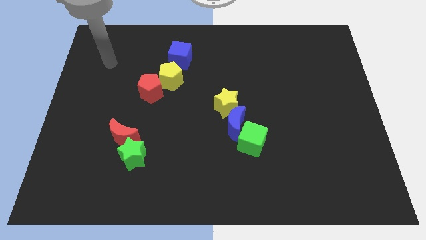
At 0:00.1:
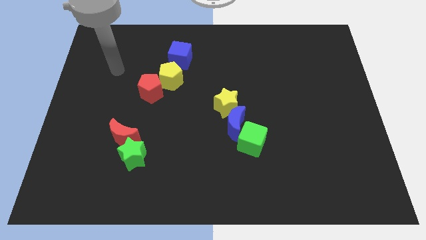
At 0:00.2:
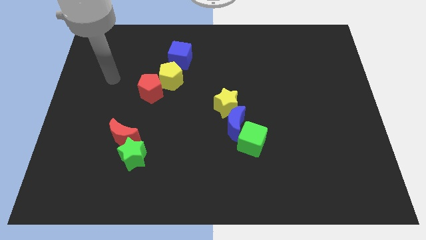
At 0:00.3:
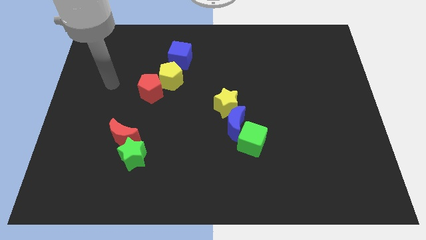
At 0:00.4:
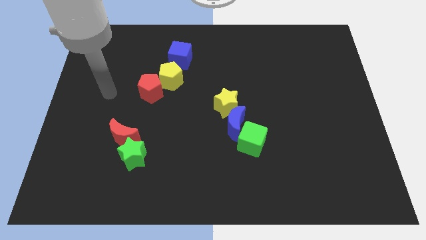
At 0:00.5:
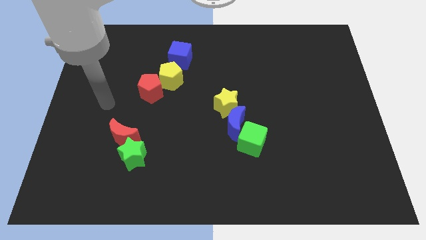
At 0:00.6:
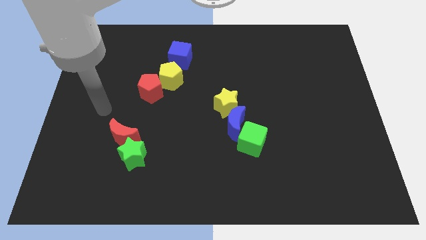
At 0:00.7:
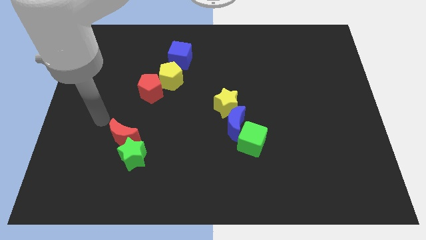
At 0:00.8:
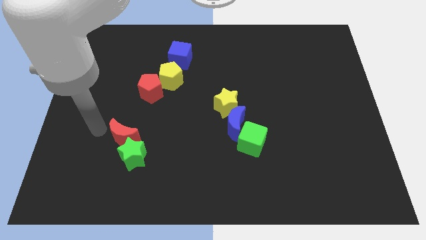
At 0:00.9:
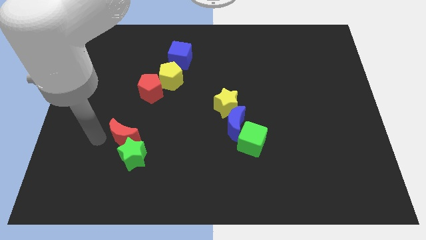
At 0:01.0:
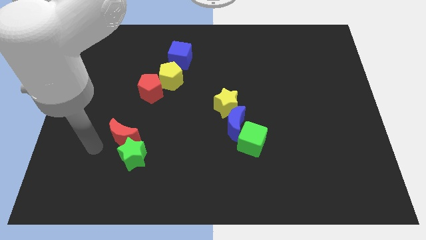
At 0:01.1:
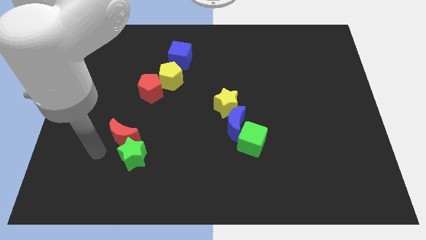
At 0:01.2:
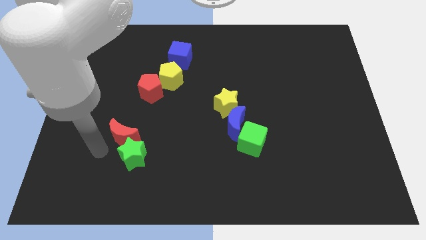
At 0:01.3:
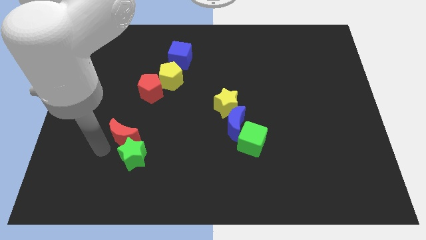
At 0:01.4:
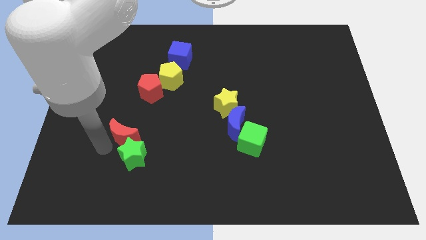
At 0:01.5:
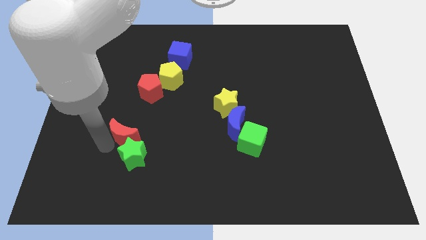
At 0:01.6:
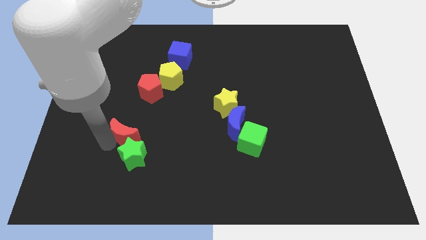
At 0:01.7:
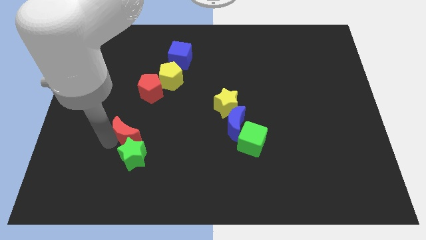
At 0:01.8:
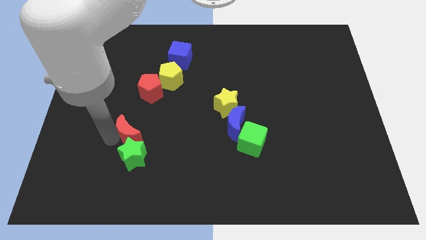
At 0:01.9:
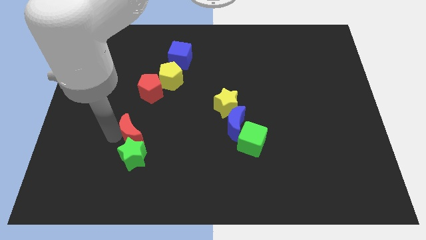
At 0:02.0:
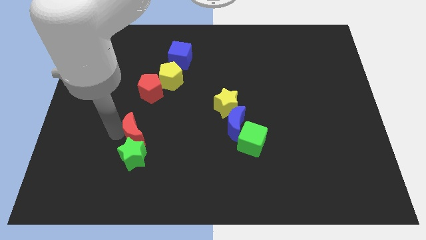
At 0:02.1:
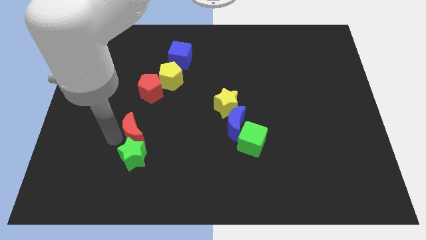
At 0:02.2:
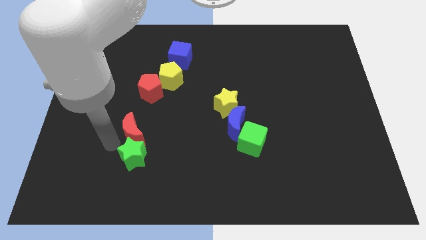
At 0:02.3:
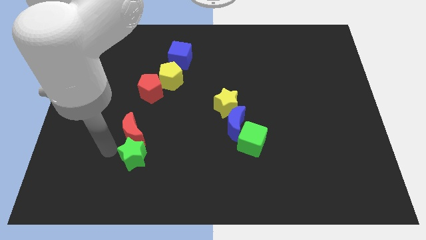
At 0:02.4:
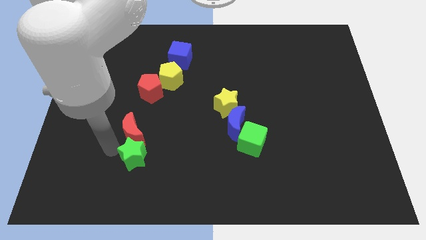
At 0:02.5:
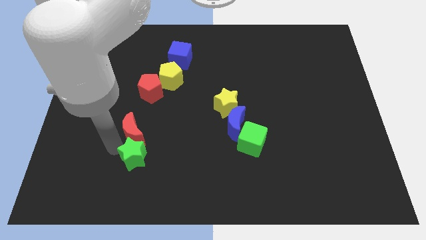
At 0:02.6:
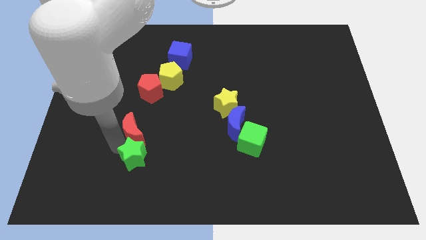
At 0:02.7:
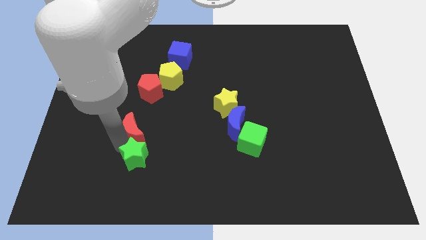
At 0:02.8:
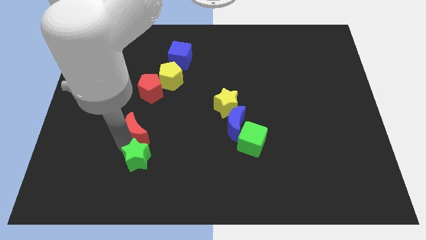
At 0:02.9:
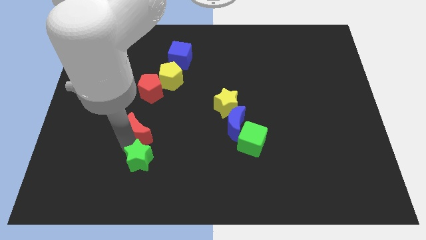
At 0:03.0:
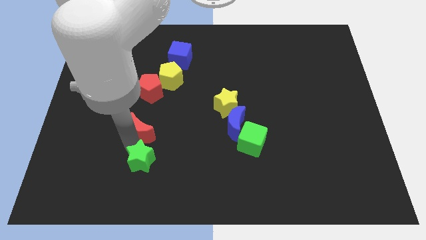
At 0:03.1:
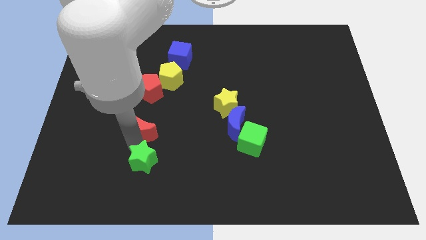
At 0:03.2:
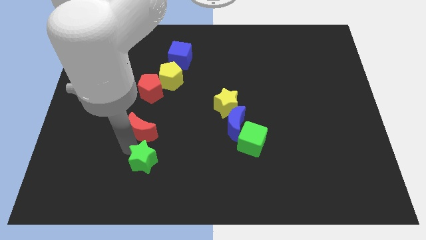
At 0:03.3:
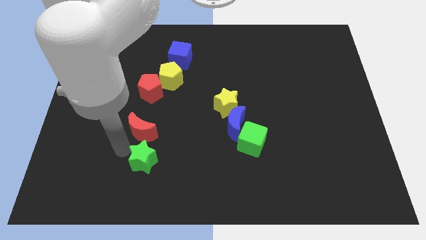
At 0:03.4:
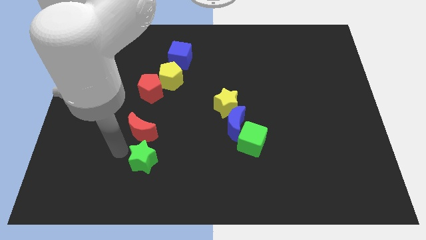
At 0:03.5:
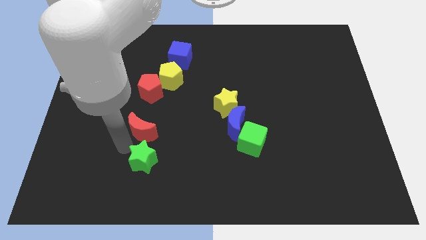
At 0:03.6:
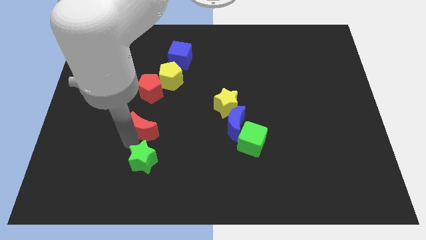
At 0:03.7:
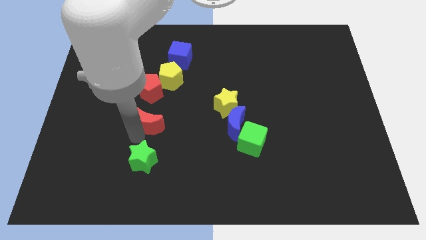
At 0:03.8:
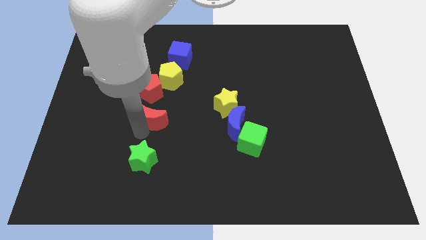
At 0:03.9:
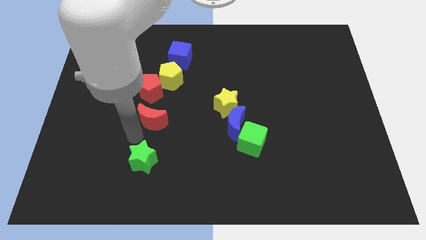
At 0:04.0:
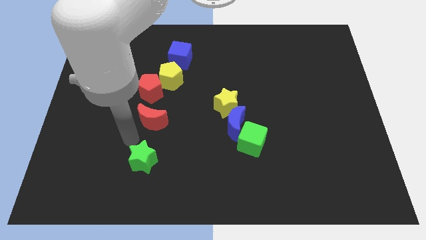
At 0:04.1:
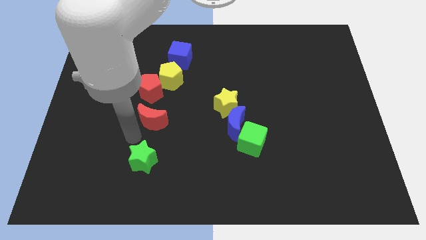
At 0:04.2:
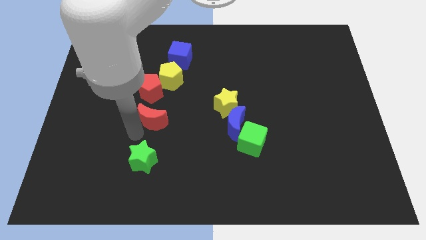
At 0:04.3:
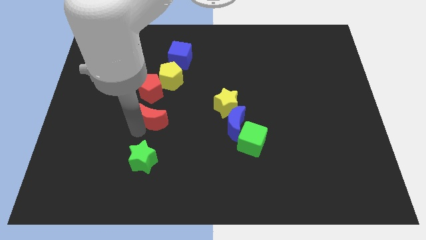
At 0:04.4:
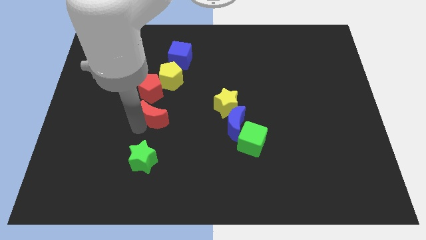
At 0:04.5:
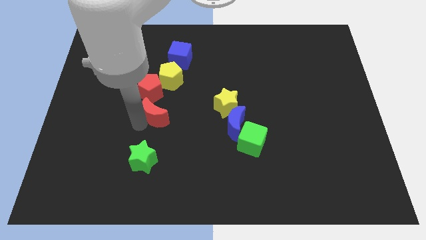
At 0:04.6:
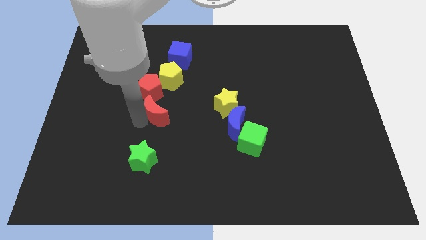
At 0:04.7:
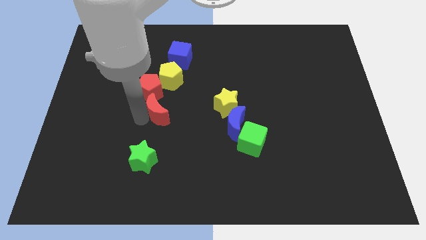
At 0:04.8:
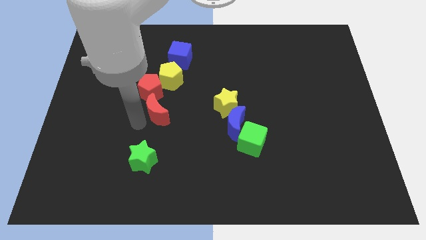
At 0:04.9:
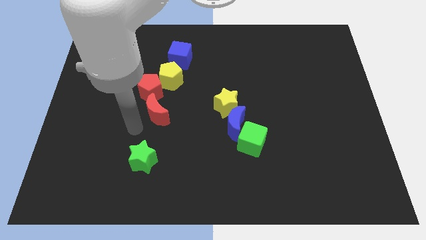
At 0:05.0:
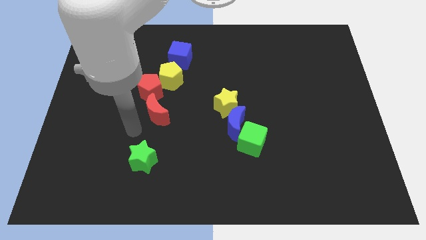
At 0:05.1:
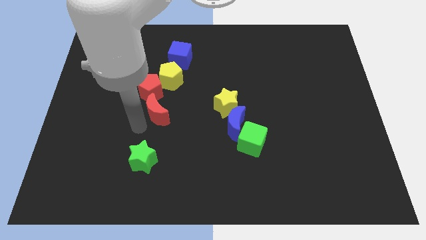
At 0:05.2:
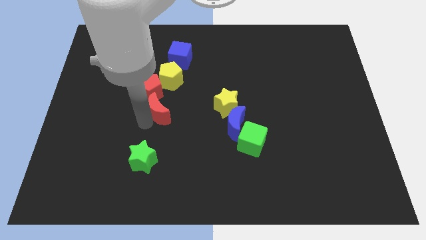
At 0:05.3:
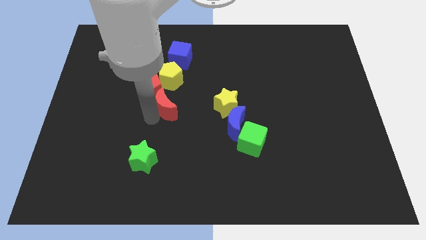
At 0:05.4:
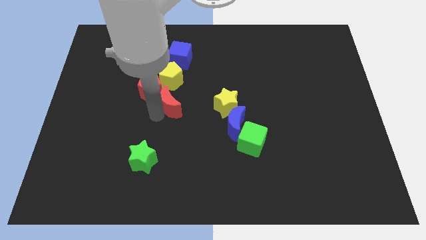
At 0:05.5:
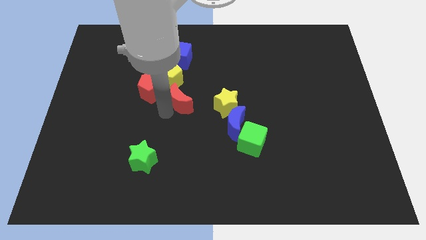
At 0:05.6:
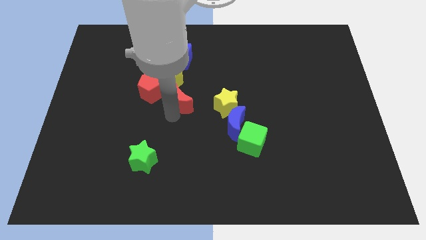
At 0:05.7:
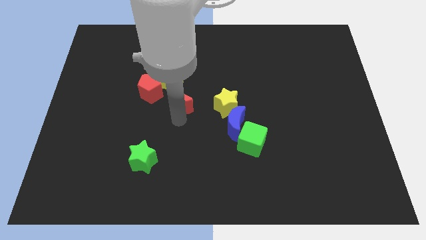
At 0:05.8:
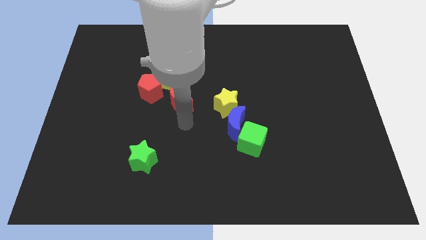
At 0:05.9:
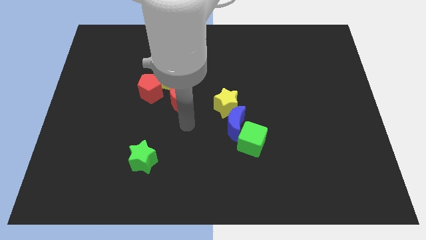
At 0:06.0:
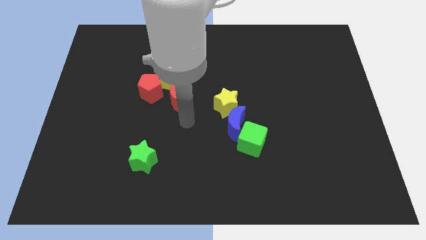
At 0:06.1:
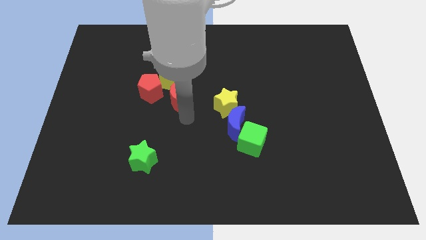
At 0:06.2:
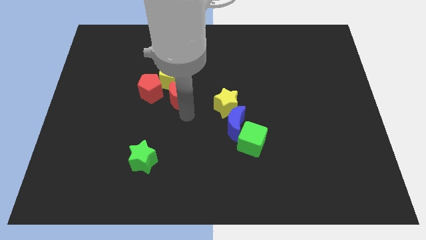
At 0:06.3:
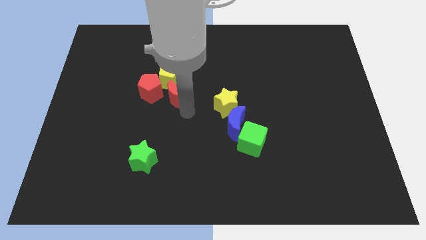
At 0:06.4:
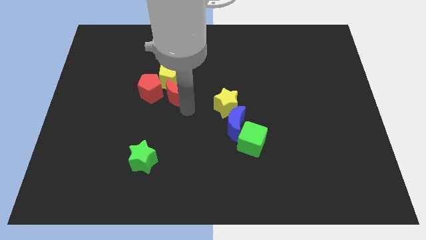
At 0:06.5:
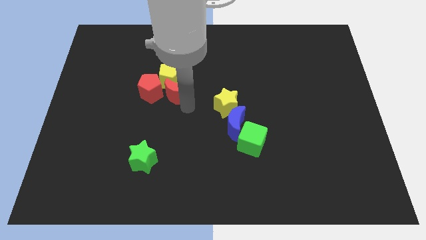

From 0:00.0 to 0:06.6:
push the red moon towards the yellow pentagon
